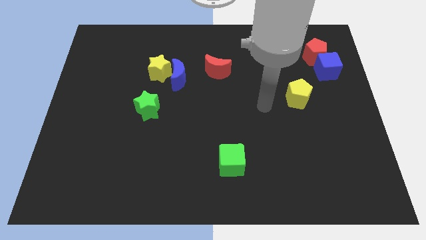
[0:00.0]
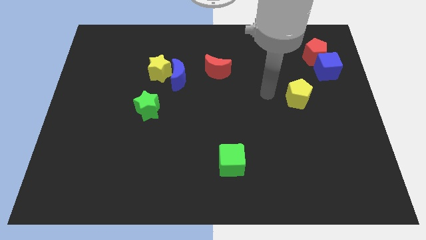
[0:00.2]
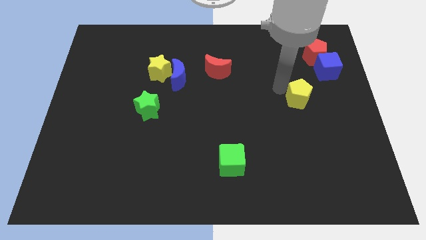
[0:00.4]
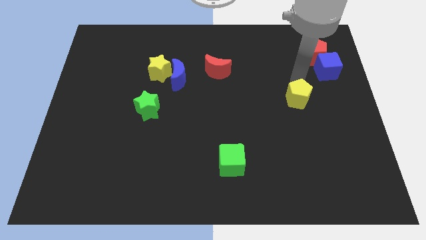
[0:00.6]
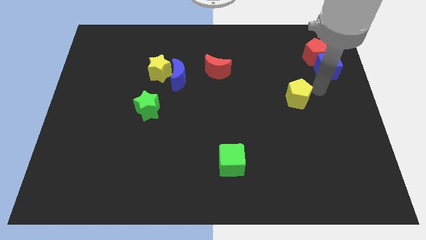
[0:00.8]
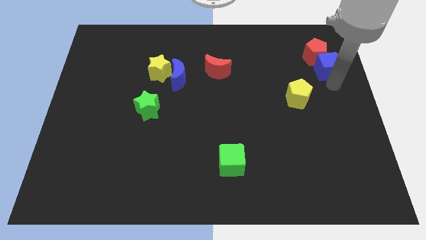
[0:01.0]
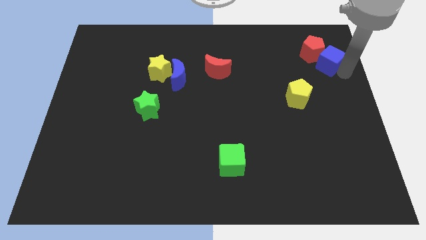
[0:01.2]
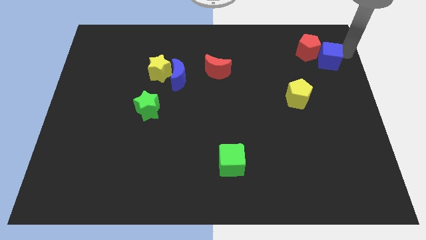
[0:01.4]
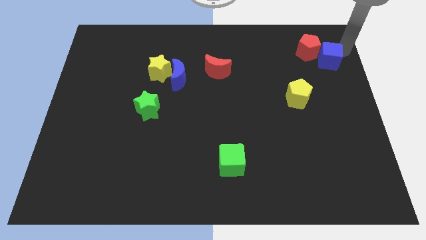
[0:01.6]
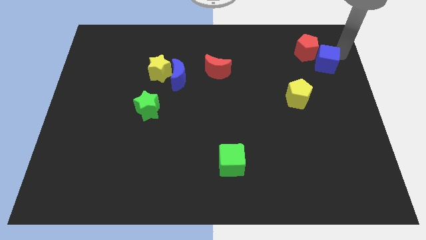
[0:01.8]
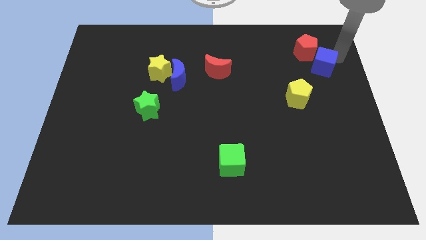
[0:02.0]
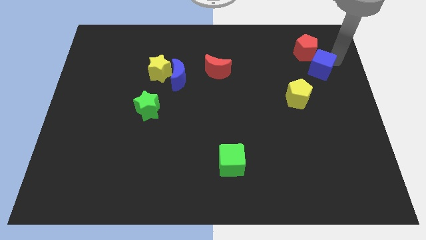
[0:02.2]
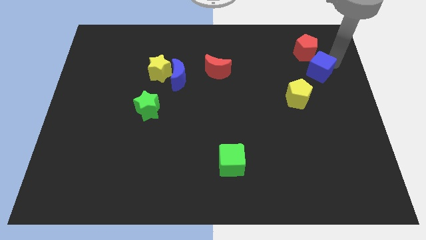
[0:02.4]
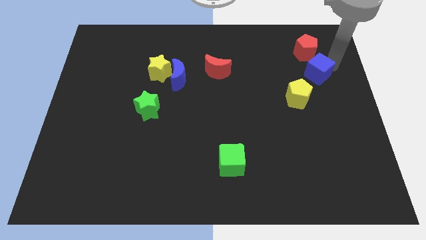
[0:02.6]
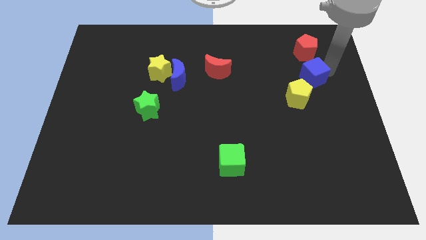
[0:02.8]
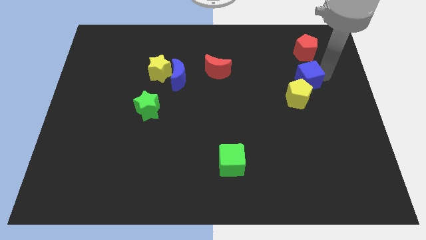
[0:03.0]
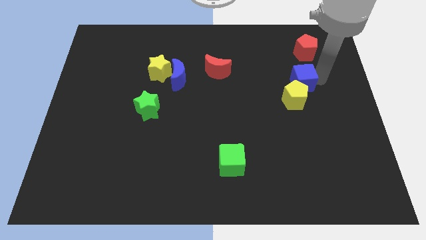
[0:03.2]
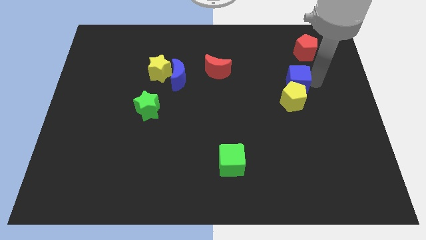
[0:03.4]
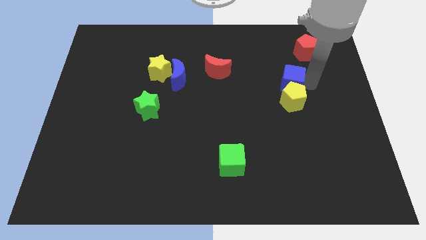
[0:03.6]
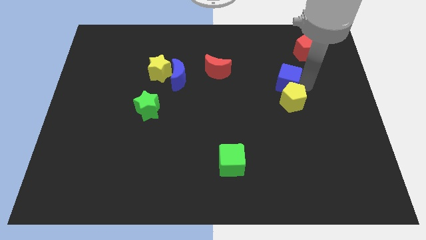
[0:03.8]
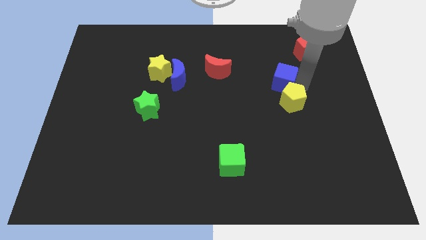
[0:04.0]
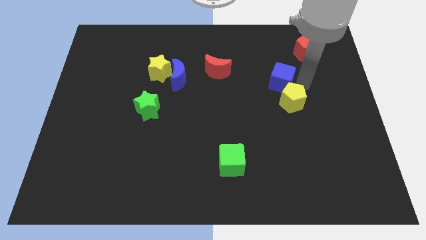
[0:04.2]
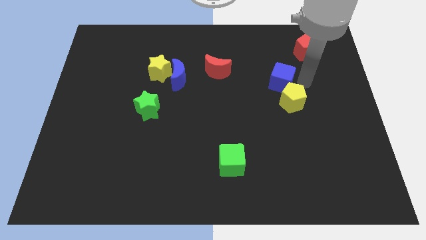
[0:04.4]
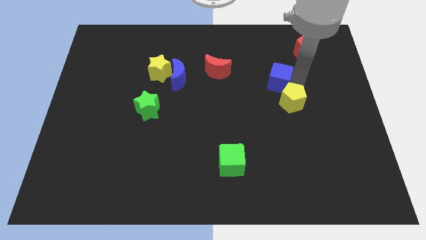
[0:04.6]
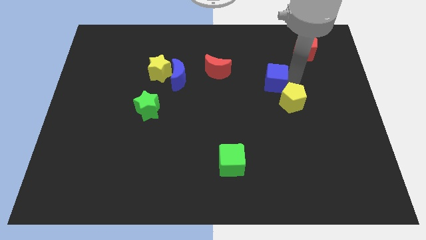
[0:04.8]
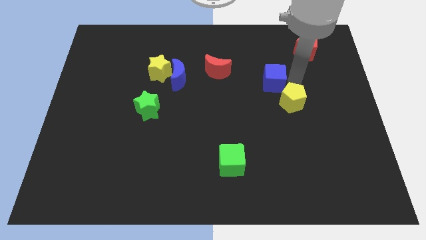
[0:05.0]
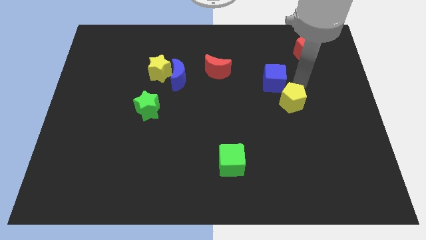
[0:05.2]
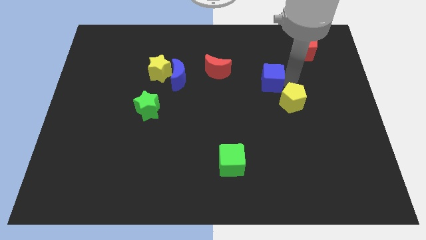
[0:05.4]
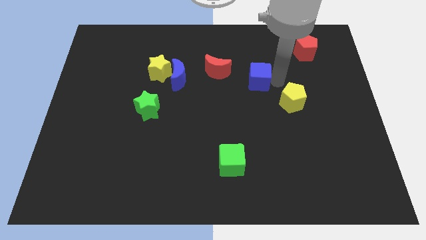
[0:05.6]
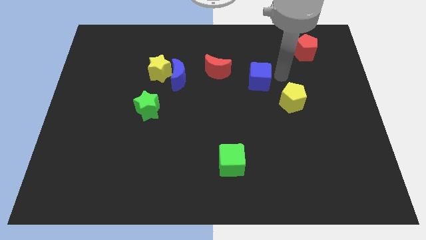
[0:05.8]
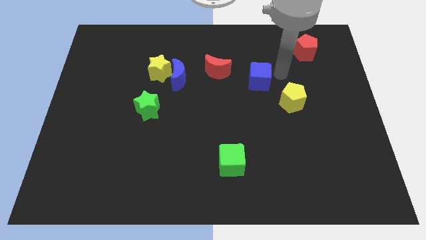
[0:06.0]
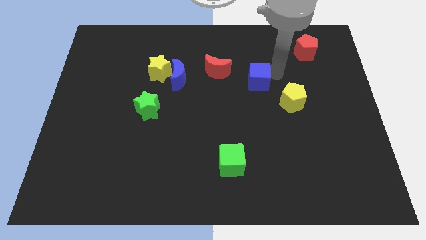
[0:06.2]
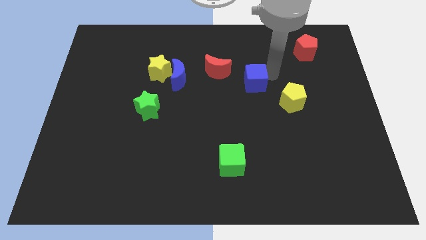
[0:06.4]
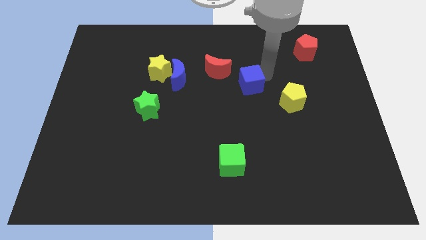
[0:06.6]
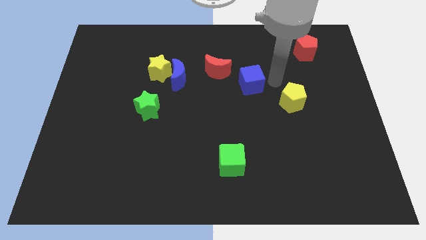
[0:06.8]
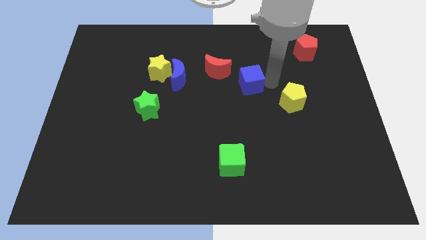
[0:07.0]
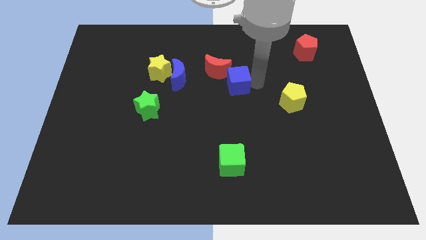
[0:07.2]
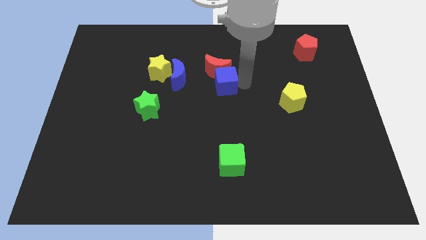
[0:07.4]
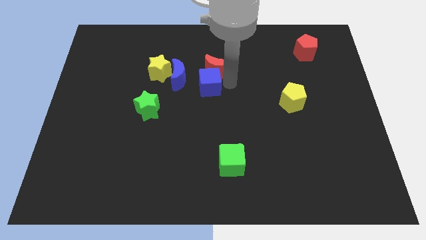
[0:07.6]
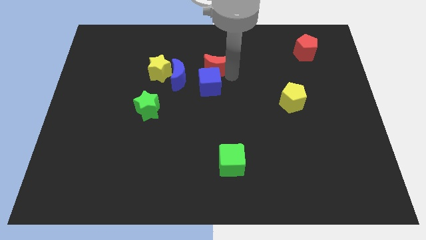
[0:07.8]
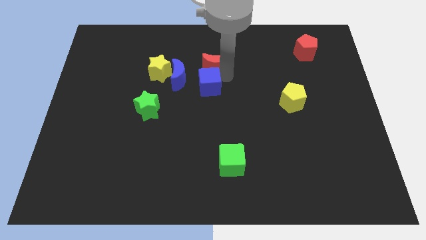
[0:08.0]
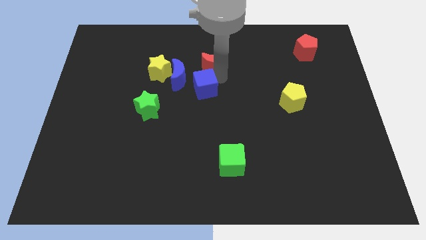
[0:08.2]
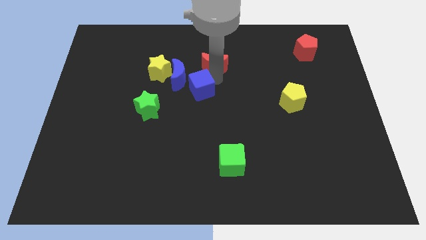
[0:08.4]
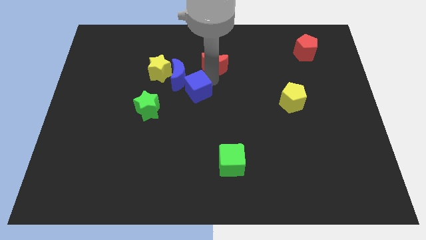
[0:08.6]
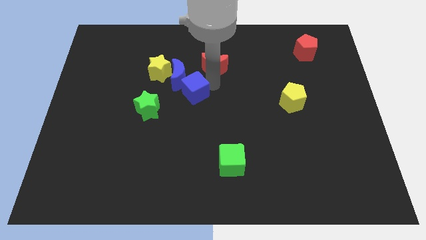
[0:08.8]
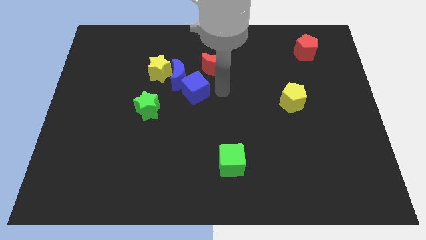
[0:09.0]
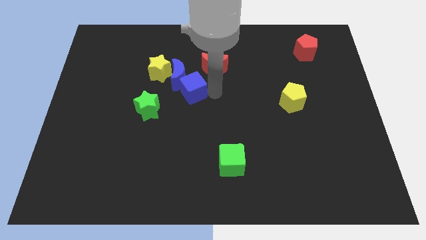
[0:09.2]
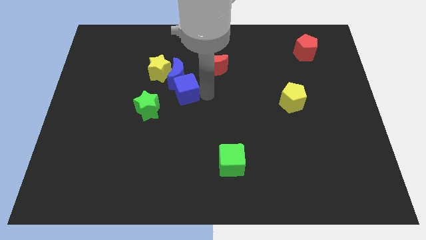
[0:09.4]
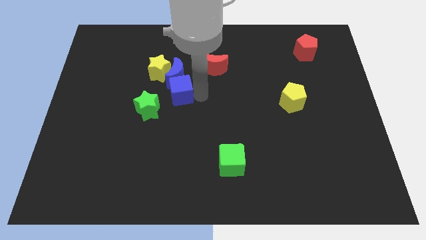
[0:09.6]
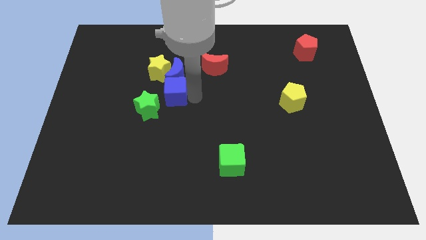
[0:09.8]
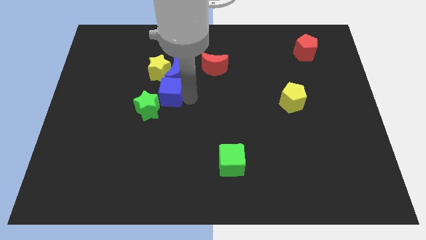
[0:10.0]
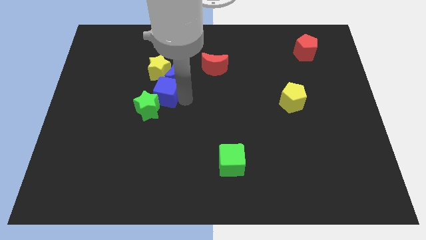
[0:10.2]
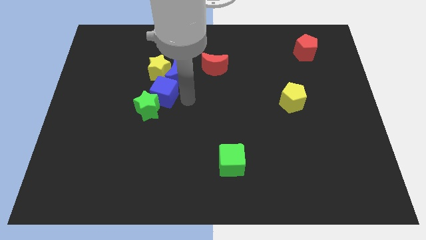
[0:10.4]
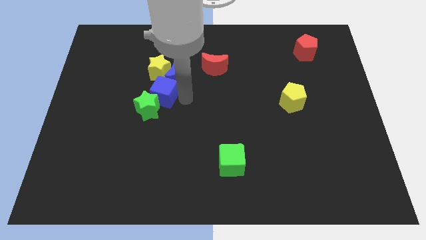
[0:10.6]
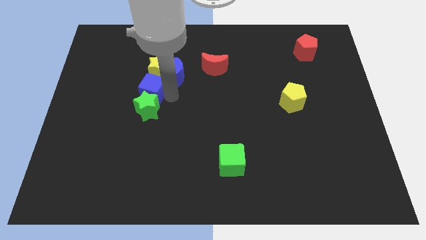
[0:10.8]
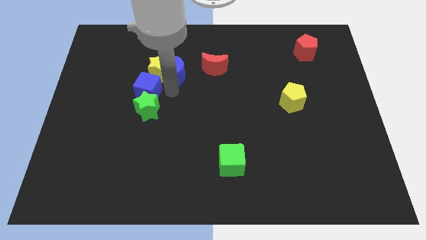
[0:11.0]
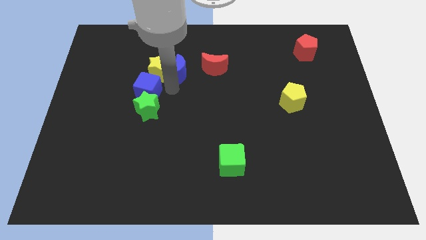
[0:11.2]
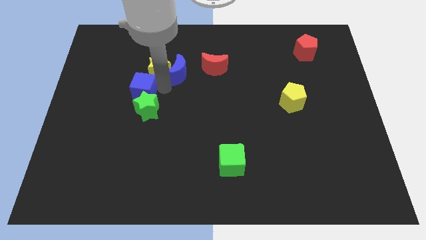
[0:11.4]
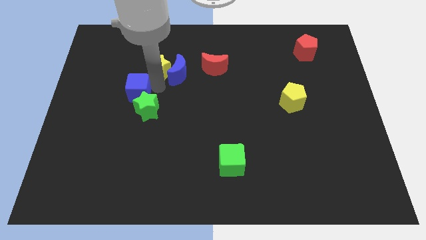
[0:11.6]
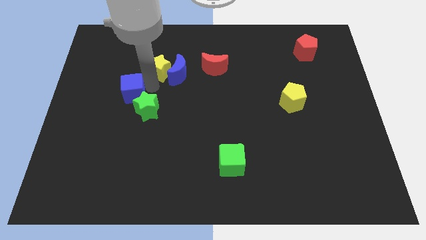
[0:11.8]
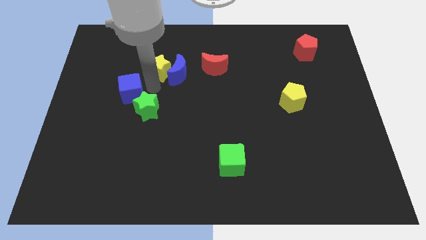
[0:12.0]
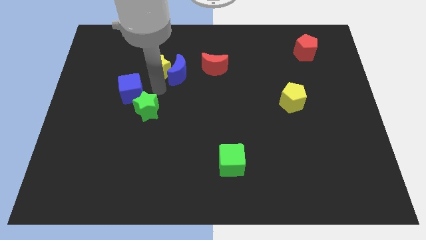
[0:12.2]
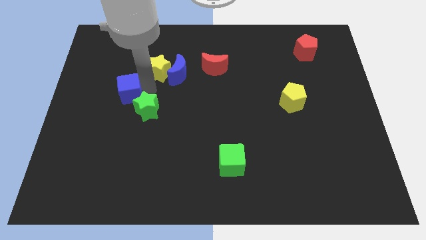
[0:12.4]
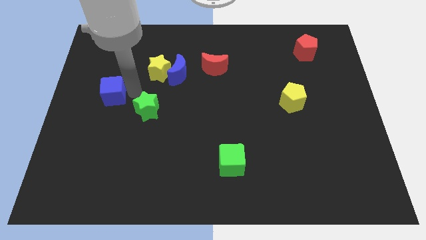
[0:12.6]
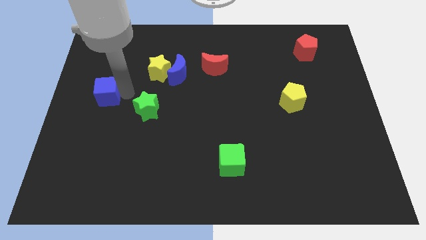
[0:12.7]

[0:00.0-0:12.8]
put the blue cube to the left side of the board
